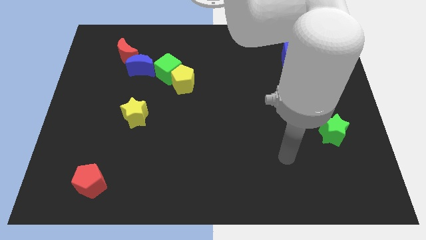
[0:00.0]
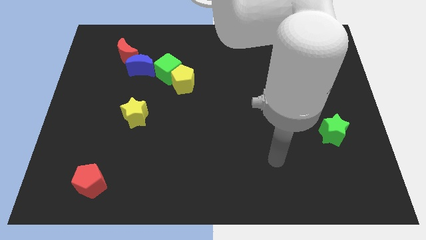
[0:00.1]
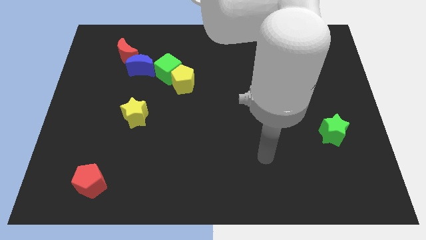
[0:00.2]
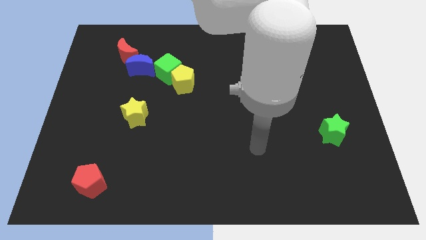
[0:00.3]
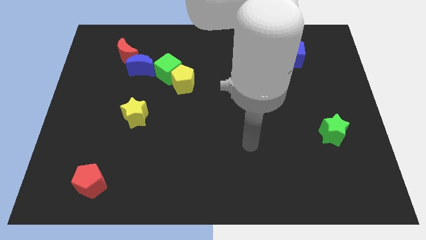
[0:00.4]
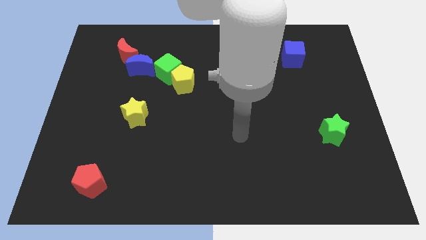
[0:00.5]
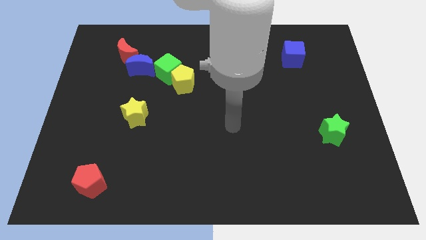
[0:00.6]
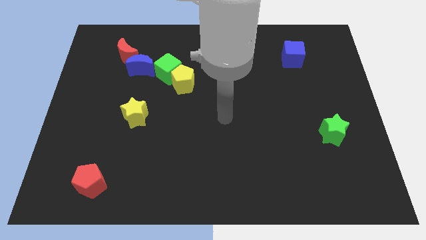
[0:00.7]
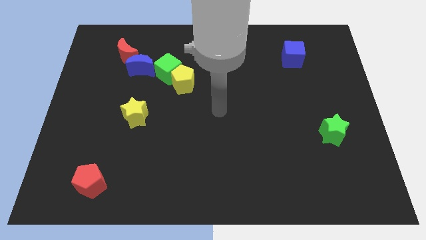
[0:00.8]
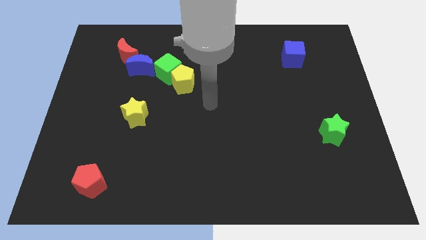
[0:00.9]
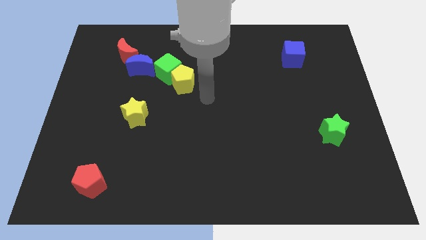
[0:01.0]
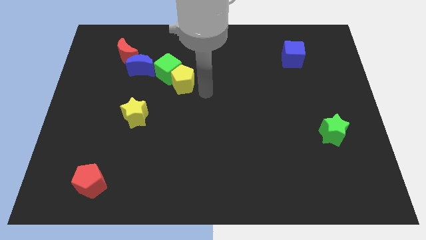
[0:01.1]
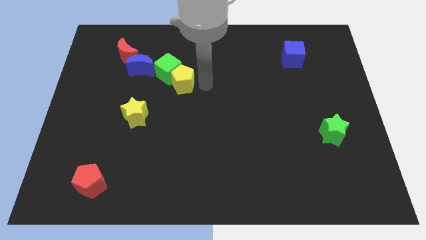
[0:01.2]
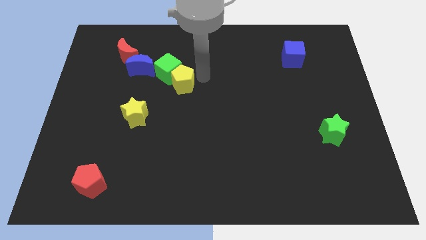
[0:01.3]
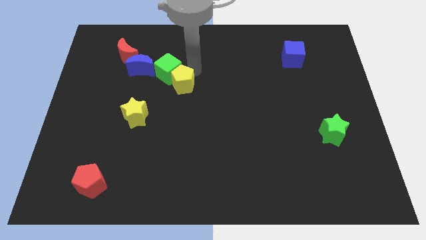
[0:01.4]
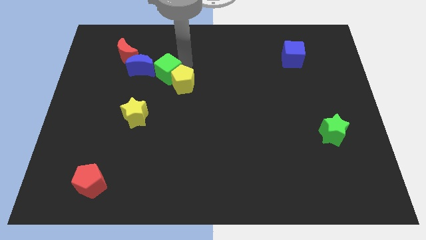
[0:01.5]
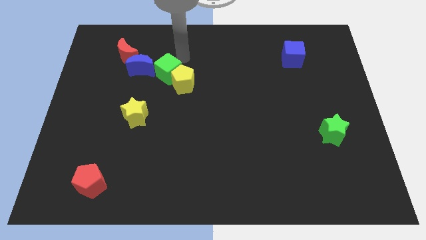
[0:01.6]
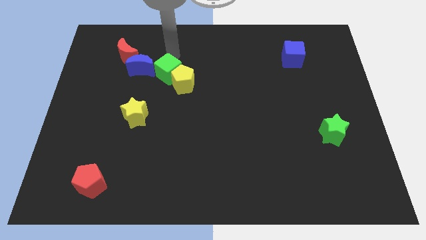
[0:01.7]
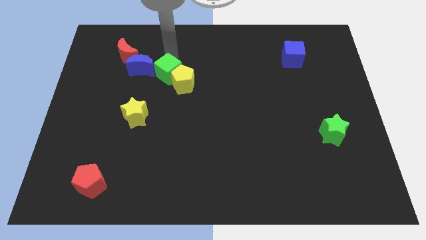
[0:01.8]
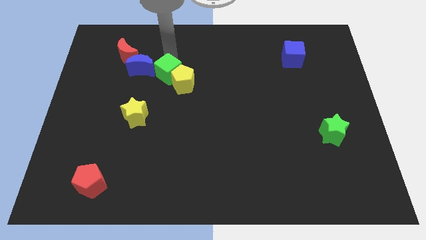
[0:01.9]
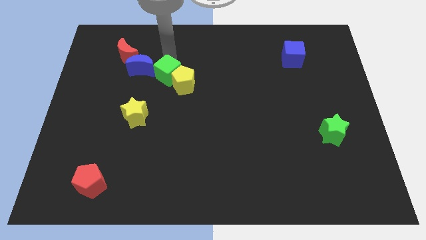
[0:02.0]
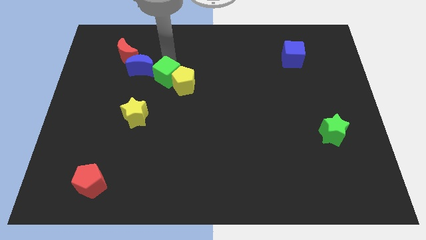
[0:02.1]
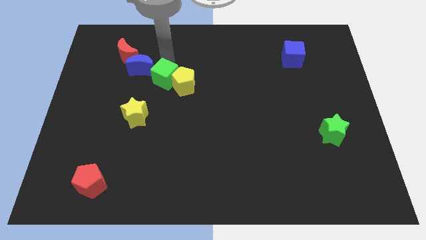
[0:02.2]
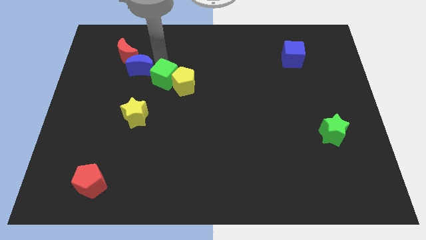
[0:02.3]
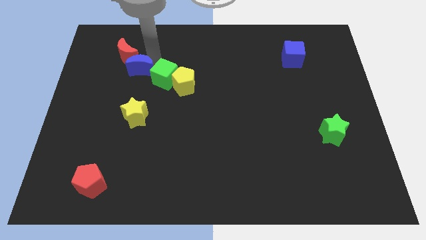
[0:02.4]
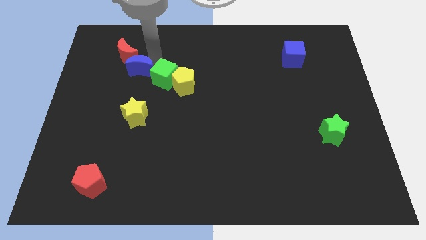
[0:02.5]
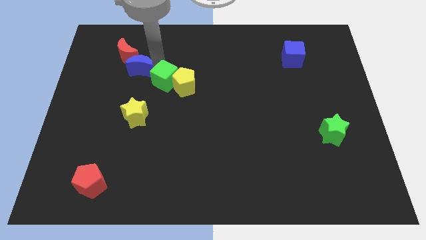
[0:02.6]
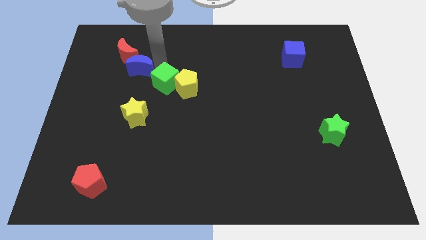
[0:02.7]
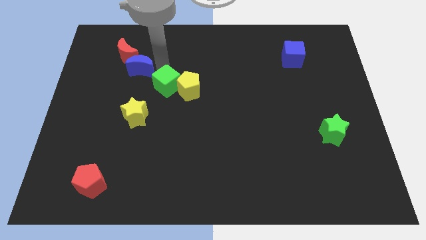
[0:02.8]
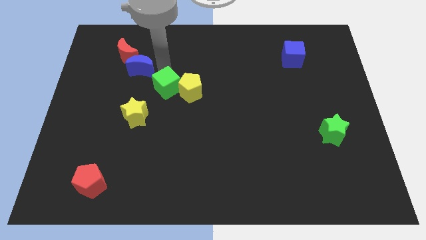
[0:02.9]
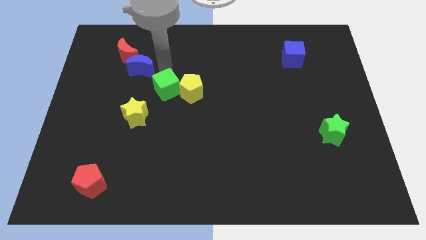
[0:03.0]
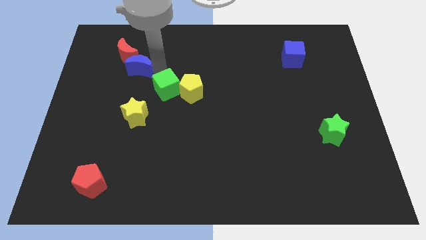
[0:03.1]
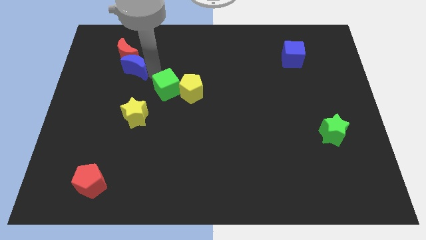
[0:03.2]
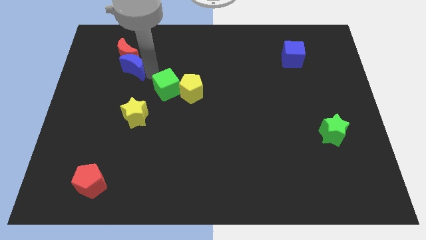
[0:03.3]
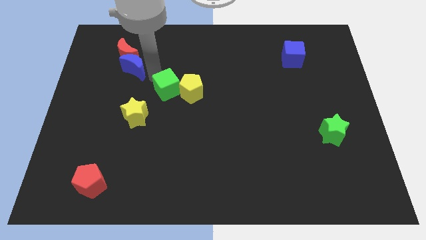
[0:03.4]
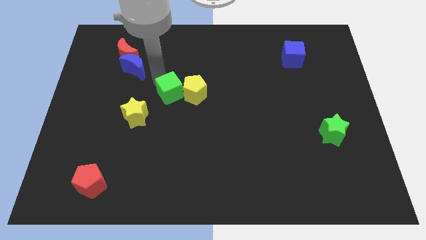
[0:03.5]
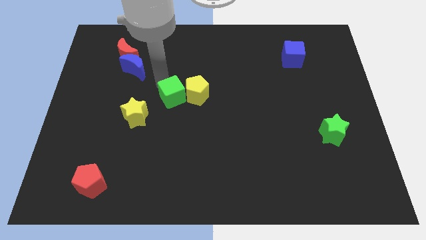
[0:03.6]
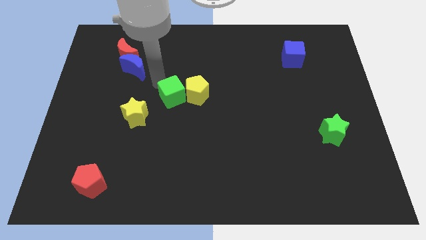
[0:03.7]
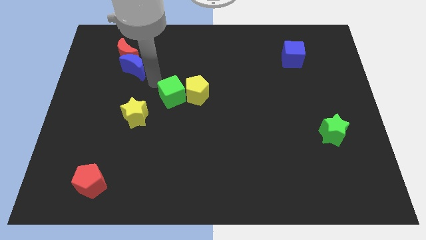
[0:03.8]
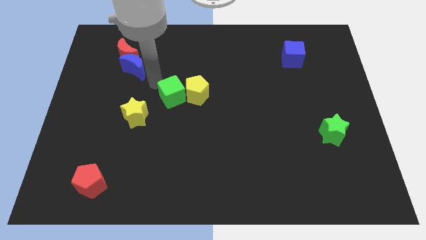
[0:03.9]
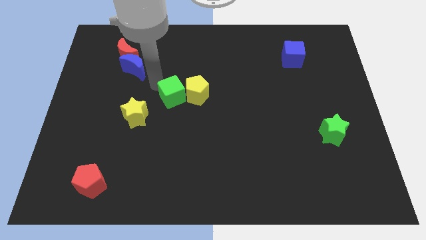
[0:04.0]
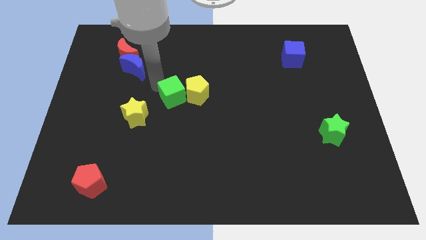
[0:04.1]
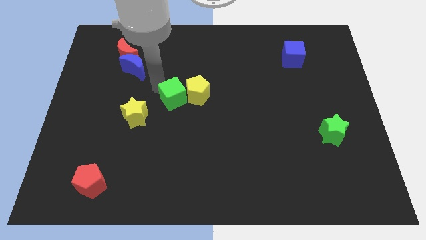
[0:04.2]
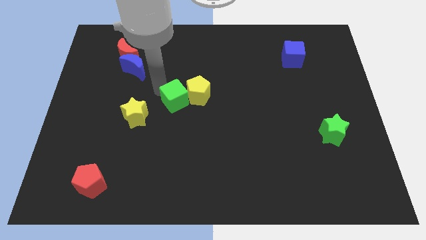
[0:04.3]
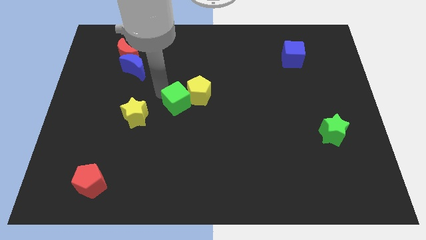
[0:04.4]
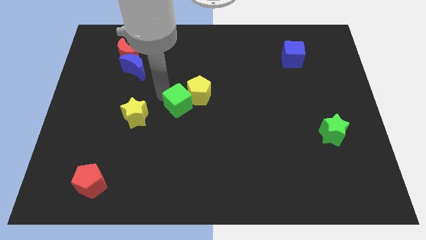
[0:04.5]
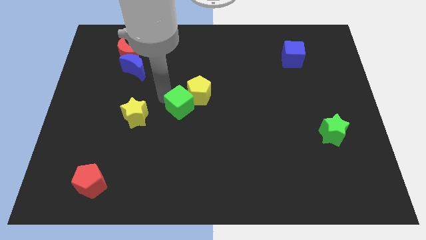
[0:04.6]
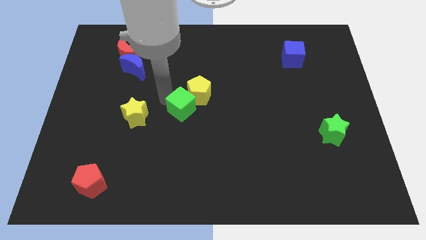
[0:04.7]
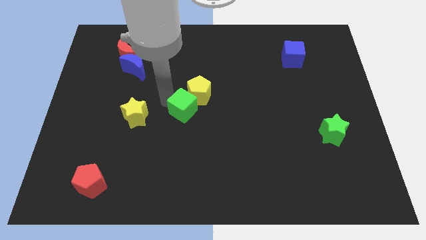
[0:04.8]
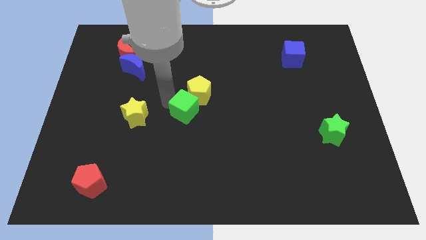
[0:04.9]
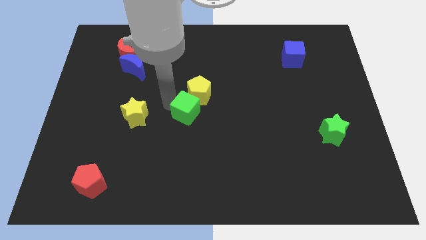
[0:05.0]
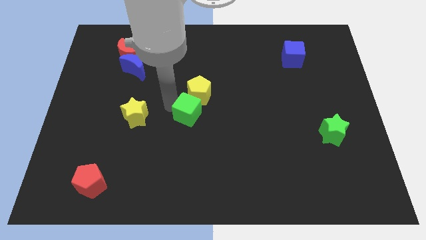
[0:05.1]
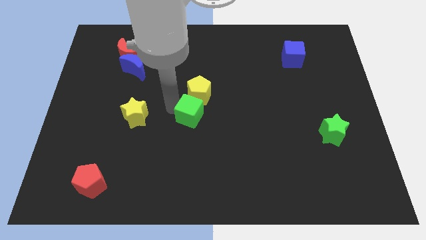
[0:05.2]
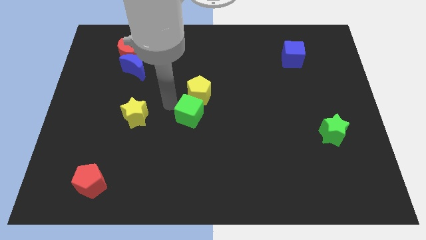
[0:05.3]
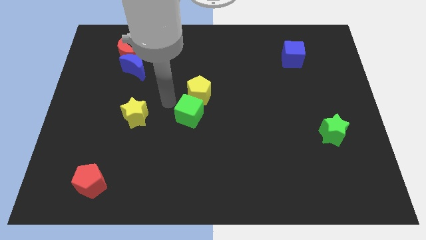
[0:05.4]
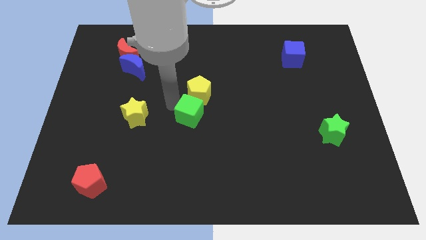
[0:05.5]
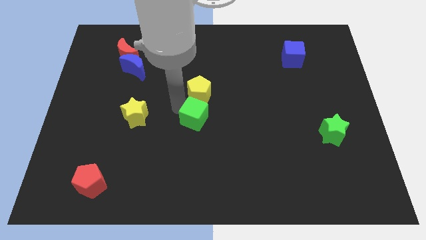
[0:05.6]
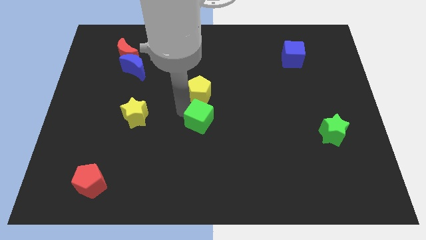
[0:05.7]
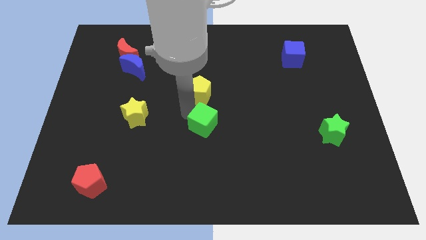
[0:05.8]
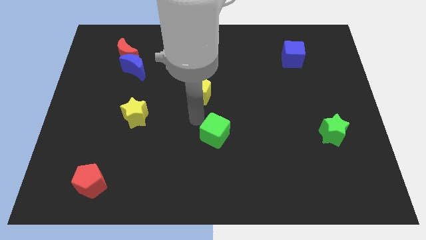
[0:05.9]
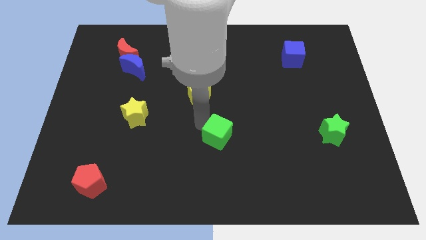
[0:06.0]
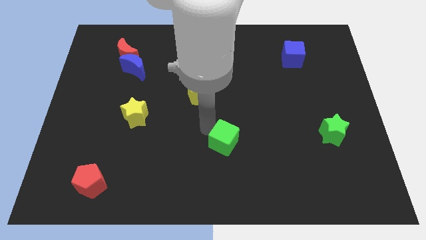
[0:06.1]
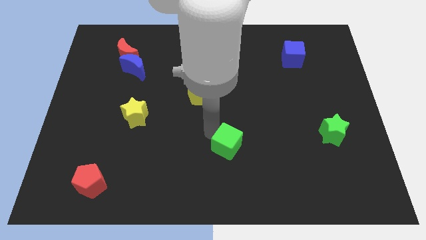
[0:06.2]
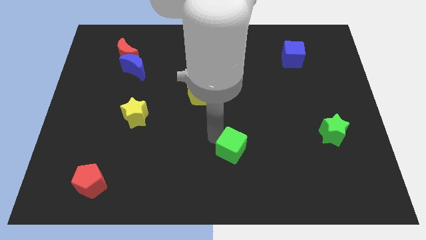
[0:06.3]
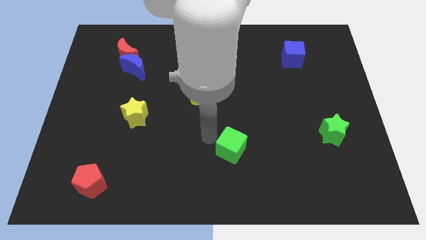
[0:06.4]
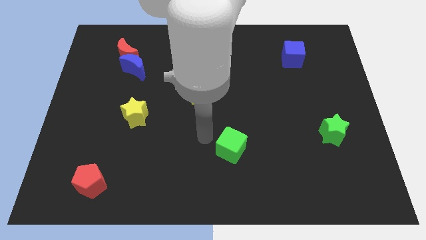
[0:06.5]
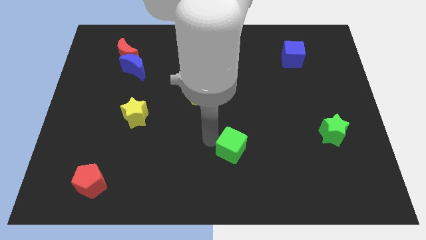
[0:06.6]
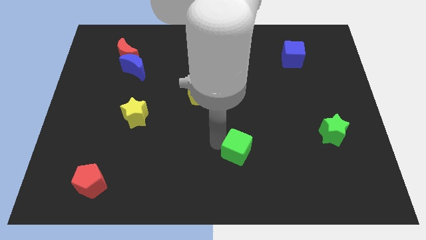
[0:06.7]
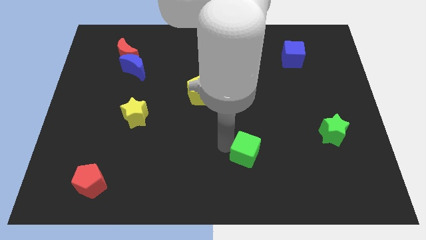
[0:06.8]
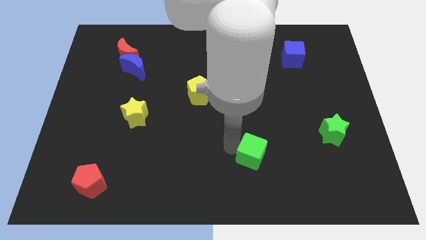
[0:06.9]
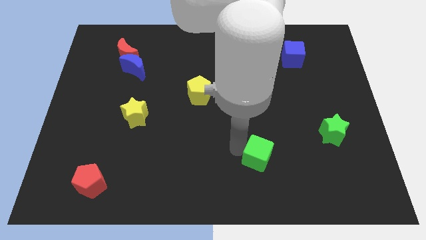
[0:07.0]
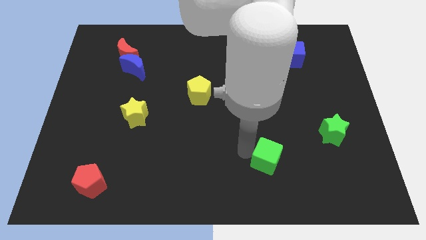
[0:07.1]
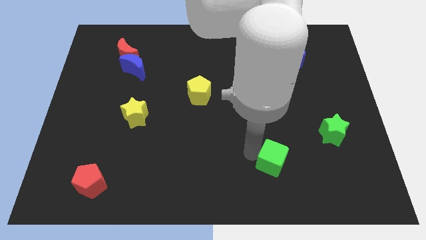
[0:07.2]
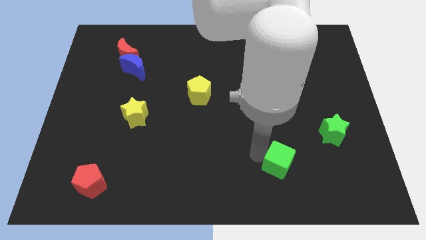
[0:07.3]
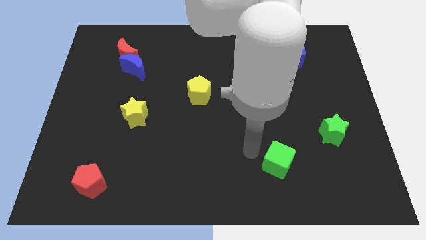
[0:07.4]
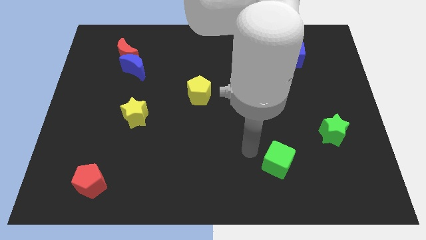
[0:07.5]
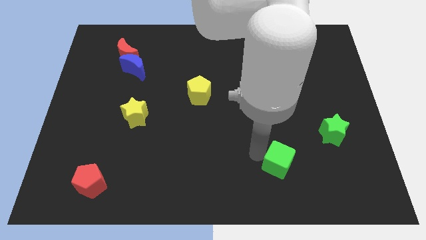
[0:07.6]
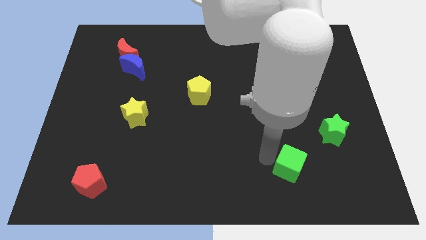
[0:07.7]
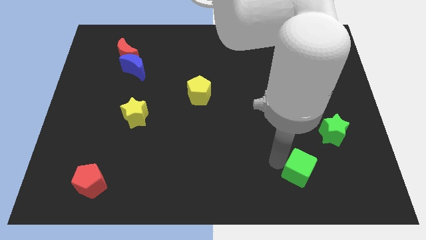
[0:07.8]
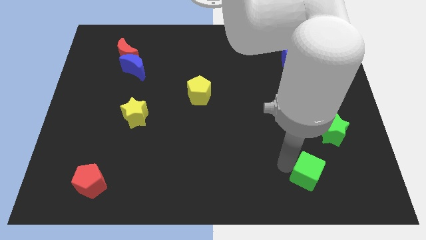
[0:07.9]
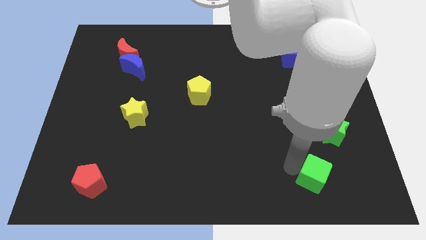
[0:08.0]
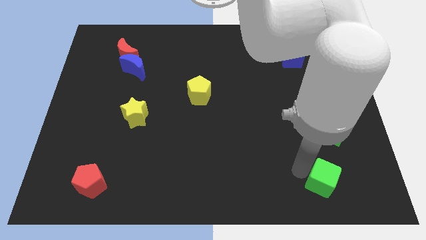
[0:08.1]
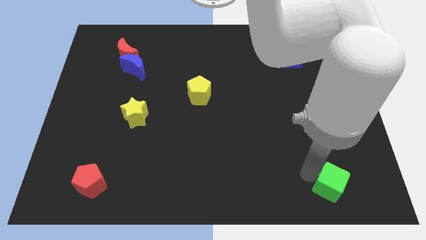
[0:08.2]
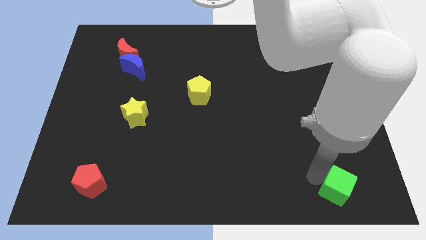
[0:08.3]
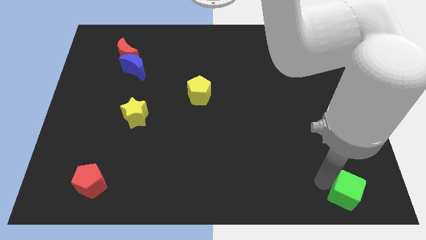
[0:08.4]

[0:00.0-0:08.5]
push the green cube to the bottom right
